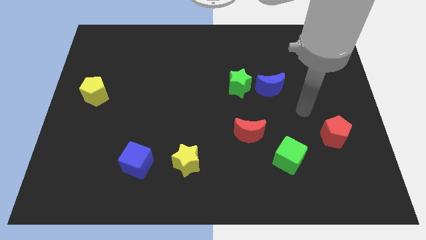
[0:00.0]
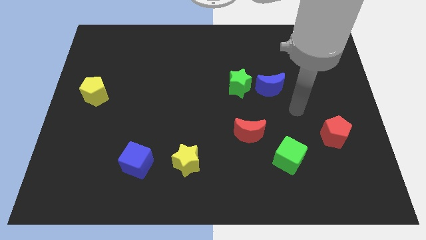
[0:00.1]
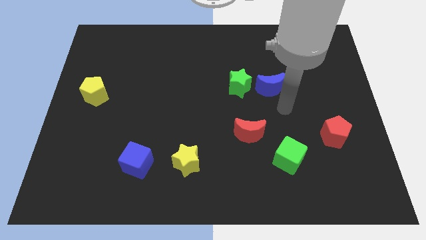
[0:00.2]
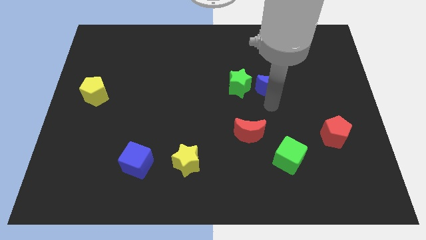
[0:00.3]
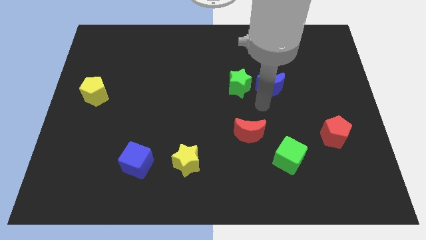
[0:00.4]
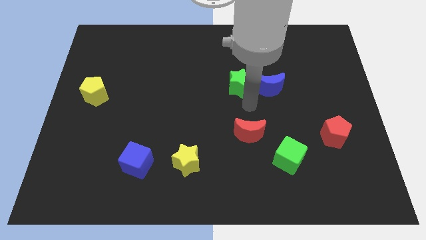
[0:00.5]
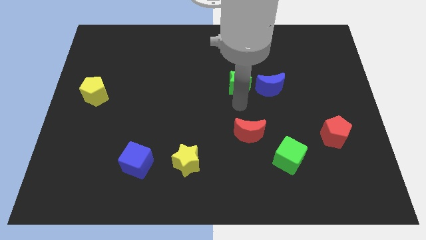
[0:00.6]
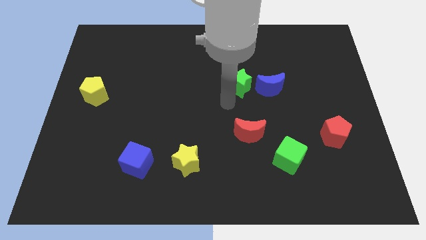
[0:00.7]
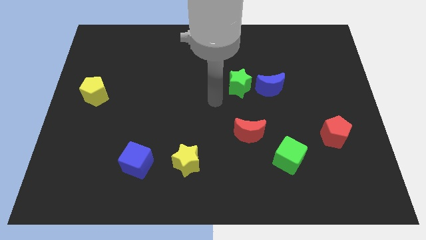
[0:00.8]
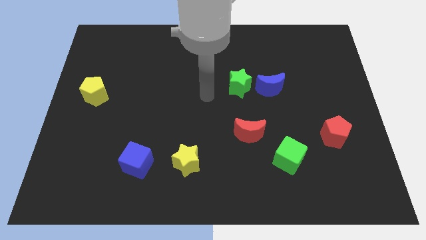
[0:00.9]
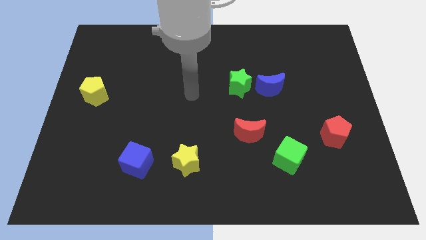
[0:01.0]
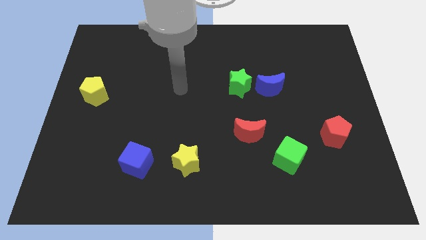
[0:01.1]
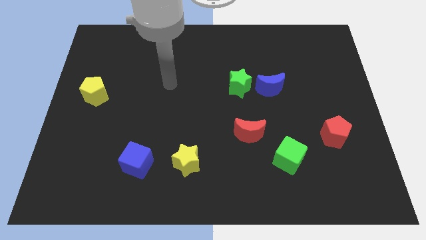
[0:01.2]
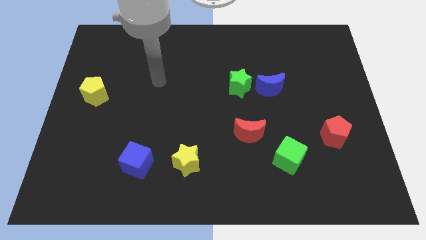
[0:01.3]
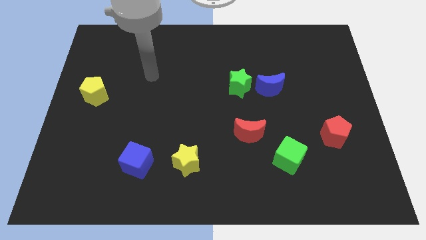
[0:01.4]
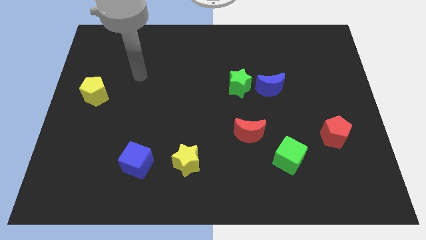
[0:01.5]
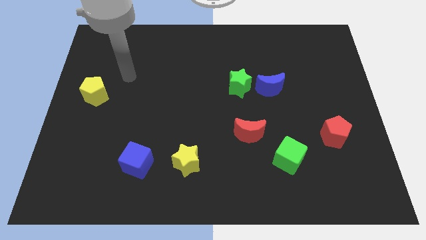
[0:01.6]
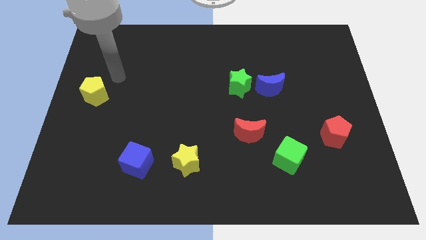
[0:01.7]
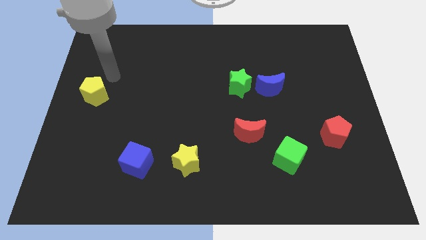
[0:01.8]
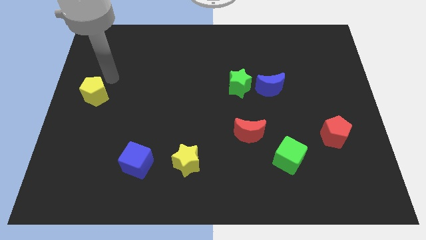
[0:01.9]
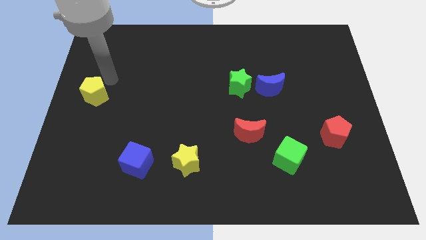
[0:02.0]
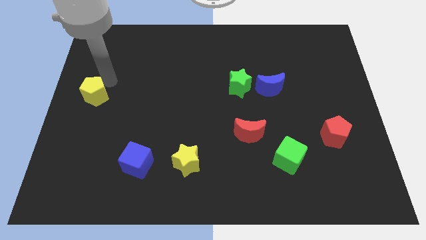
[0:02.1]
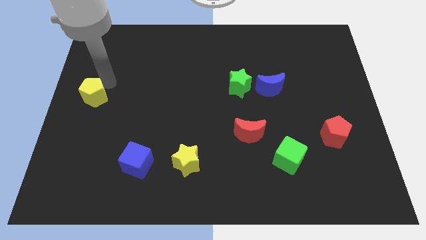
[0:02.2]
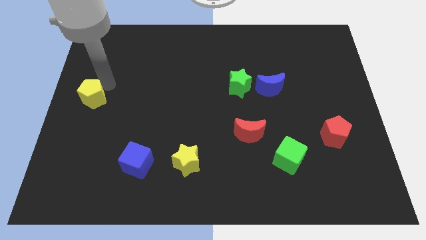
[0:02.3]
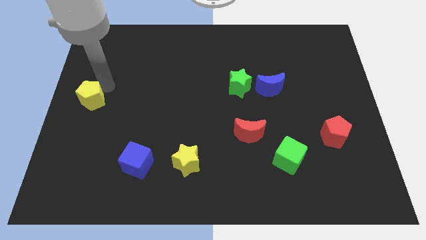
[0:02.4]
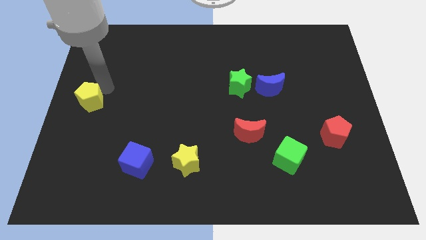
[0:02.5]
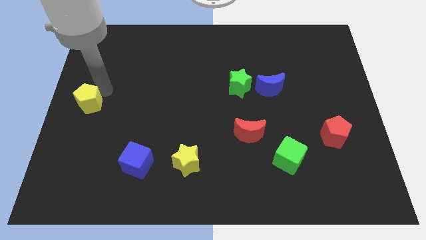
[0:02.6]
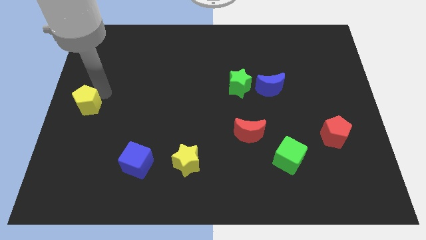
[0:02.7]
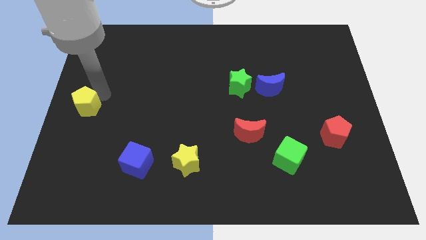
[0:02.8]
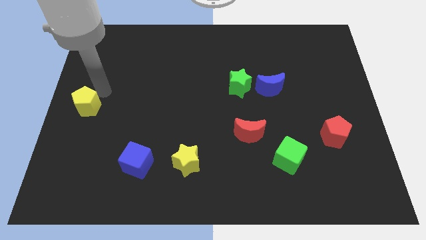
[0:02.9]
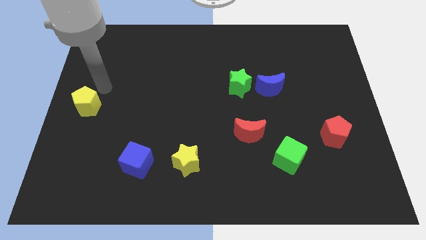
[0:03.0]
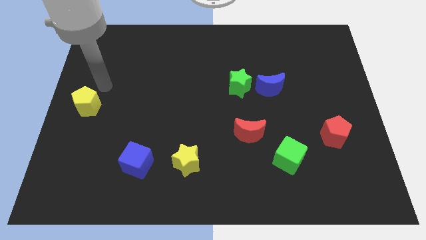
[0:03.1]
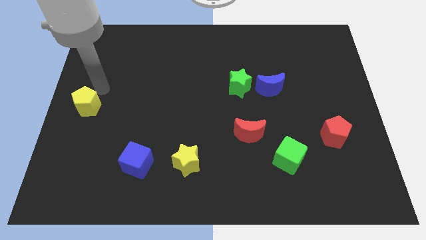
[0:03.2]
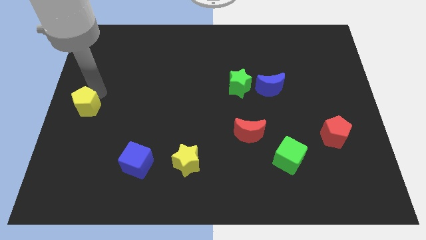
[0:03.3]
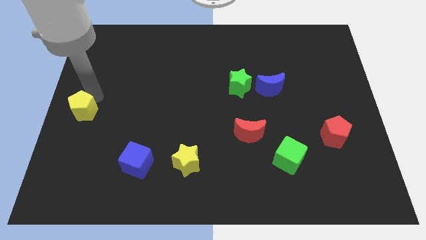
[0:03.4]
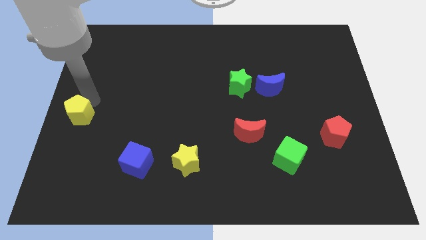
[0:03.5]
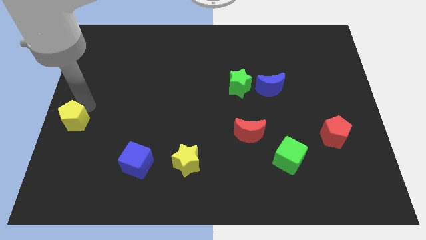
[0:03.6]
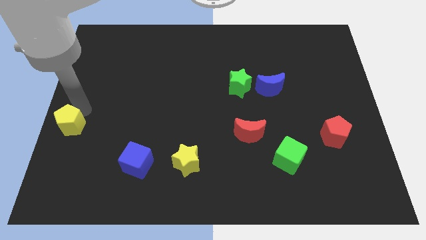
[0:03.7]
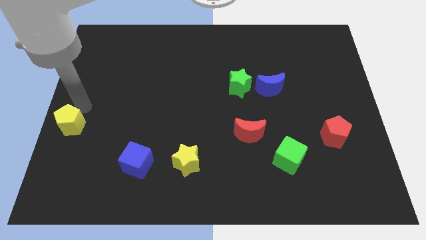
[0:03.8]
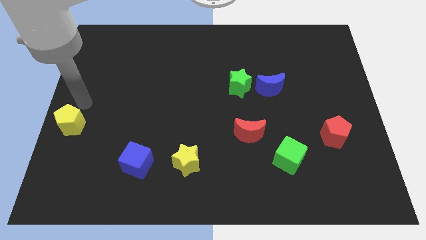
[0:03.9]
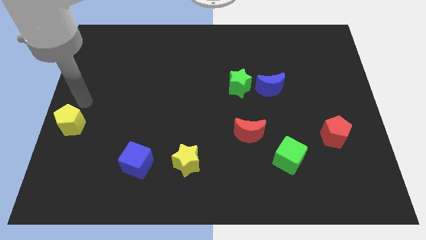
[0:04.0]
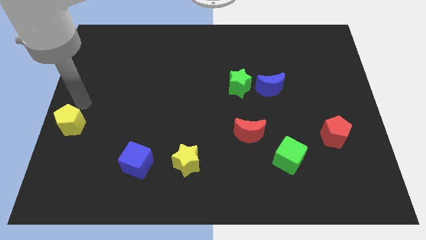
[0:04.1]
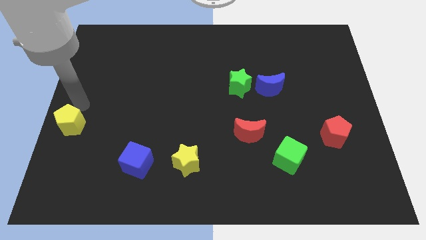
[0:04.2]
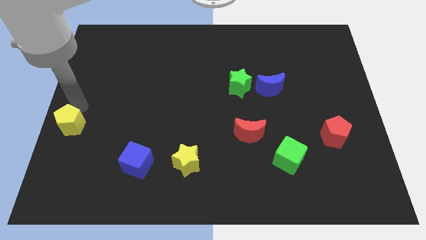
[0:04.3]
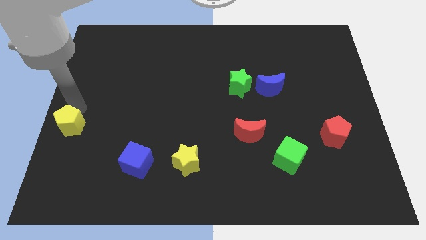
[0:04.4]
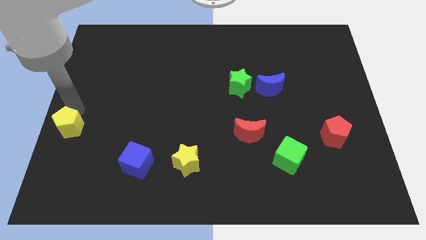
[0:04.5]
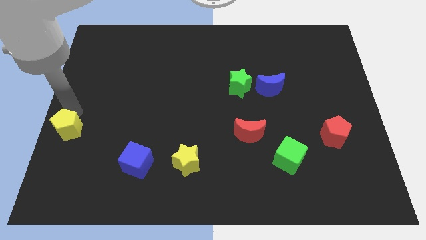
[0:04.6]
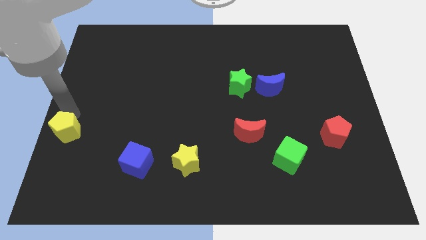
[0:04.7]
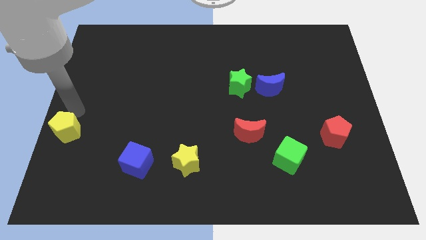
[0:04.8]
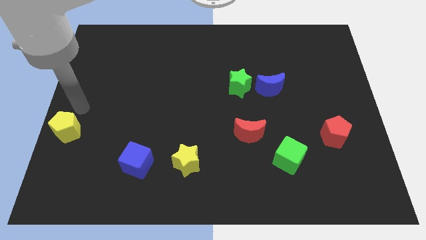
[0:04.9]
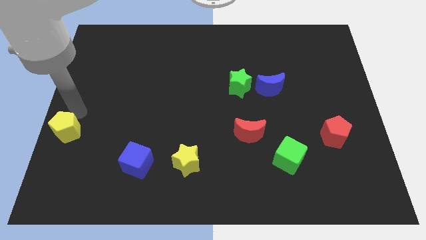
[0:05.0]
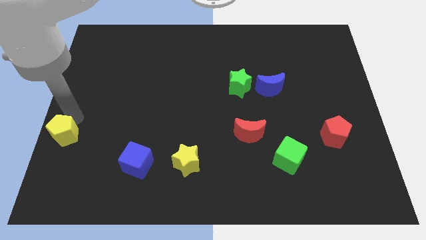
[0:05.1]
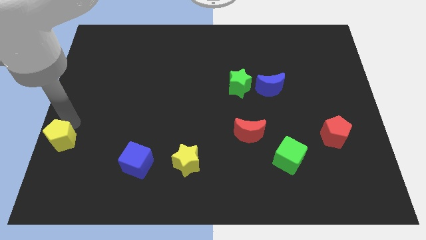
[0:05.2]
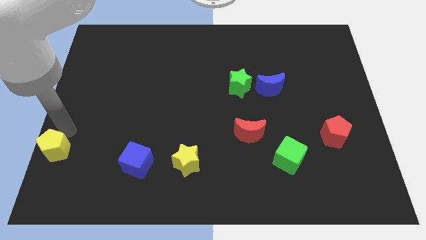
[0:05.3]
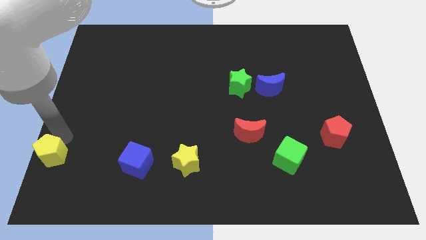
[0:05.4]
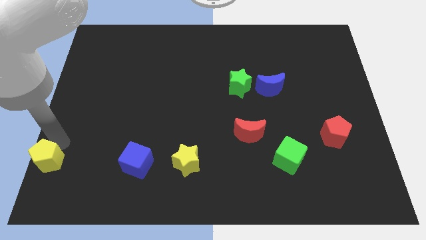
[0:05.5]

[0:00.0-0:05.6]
put the yellow pentagon to the bottom left

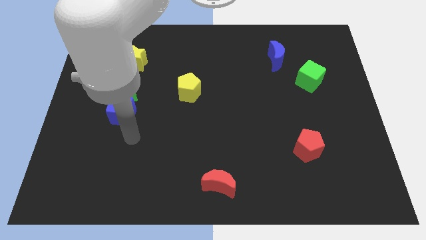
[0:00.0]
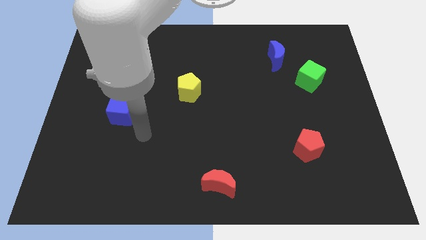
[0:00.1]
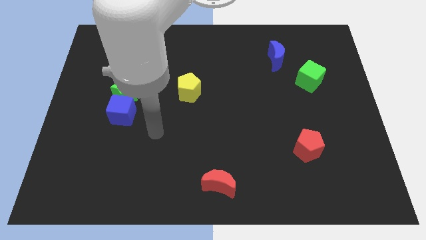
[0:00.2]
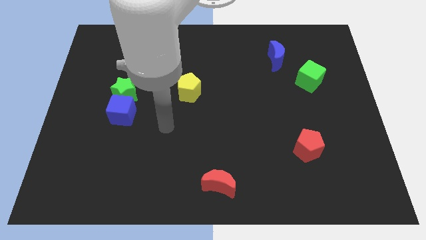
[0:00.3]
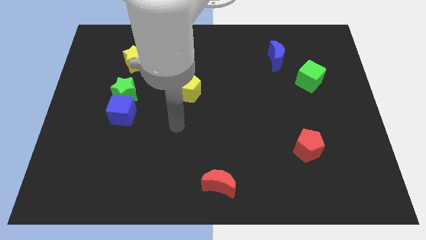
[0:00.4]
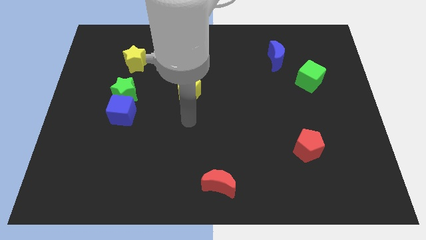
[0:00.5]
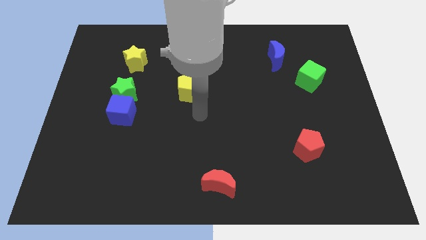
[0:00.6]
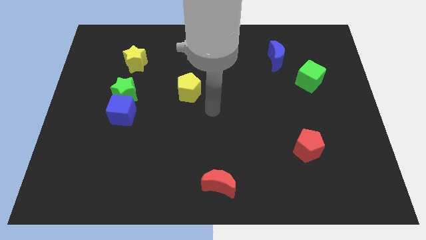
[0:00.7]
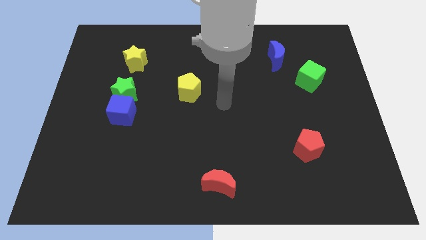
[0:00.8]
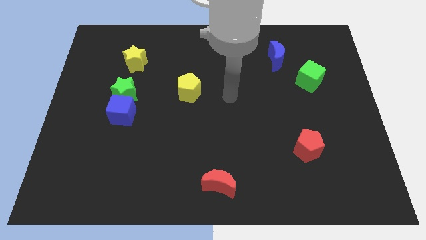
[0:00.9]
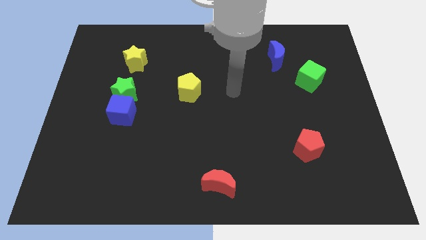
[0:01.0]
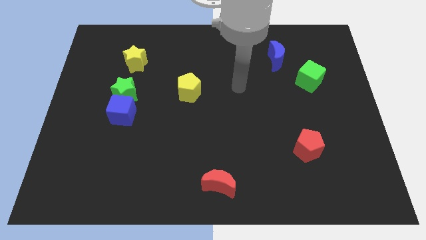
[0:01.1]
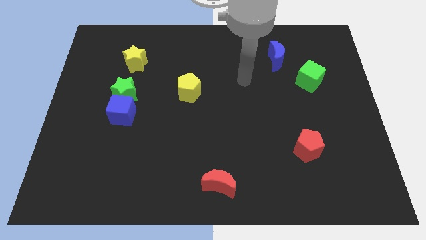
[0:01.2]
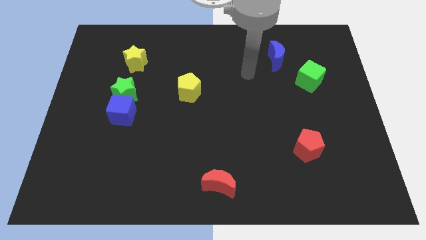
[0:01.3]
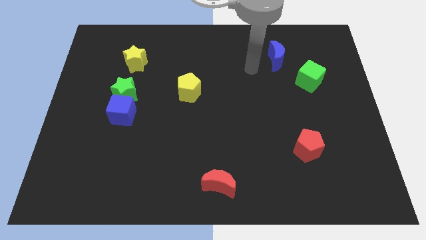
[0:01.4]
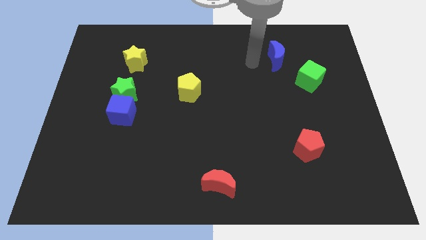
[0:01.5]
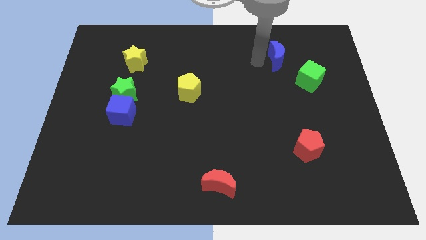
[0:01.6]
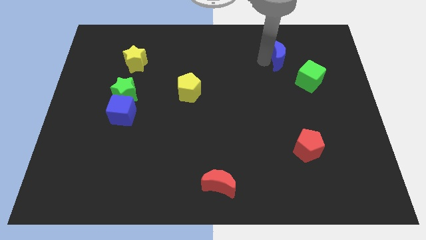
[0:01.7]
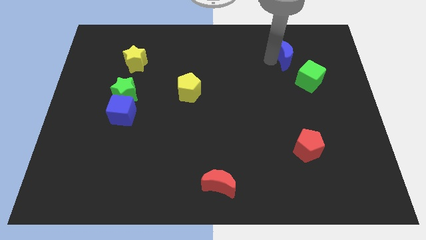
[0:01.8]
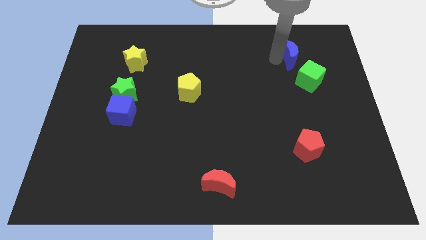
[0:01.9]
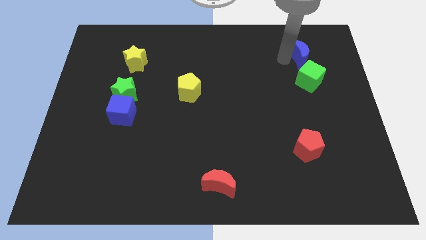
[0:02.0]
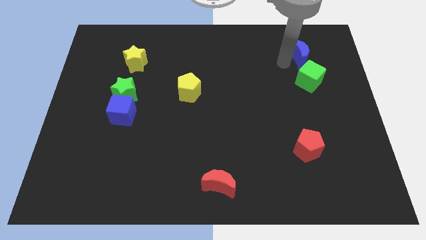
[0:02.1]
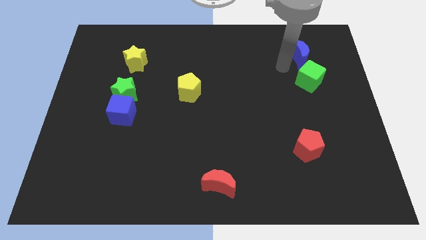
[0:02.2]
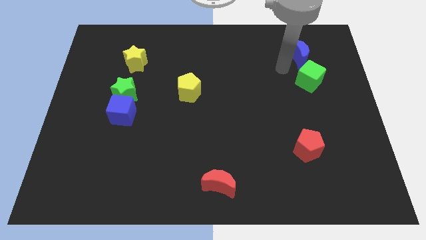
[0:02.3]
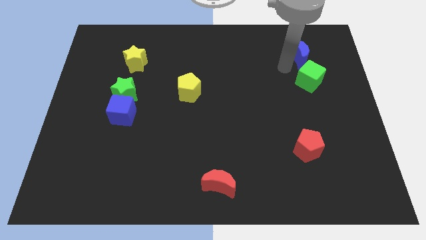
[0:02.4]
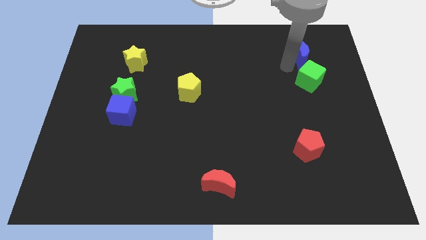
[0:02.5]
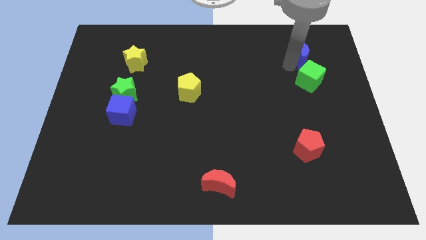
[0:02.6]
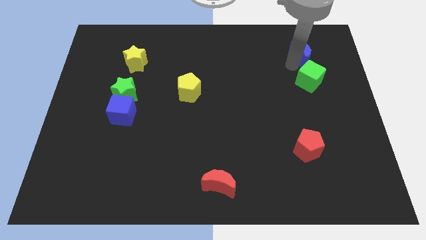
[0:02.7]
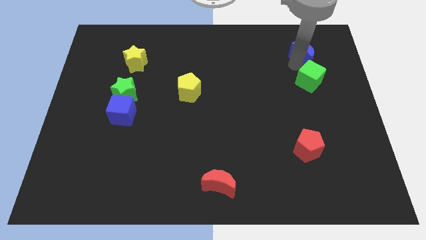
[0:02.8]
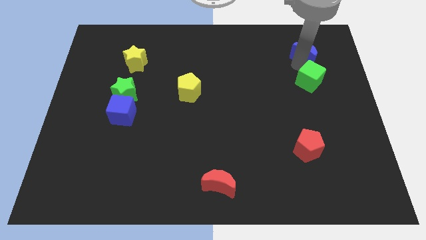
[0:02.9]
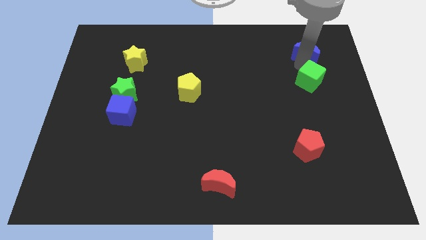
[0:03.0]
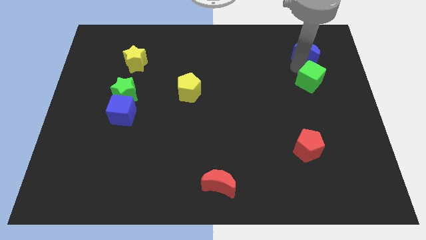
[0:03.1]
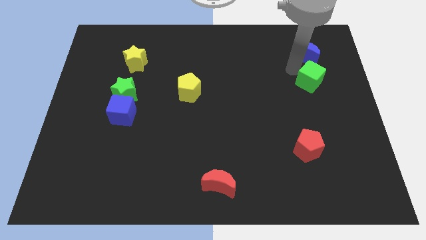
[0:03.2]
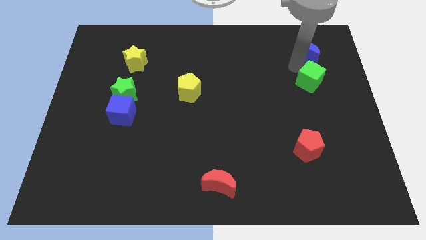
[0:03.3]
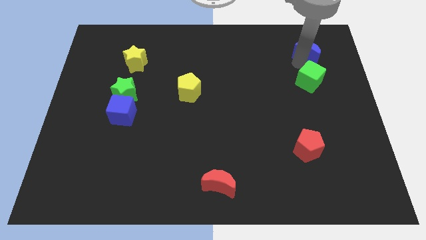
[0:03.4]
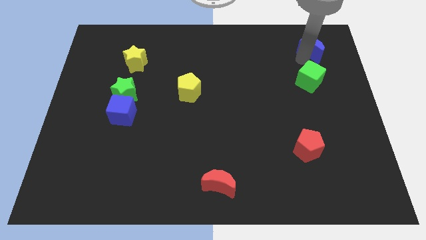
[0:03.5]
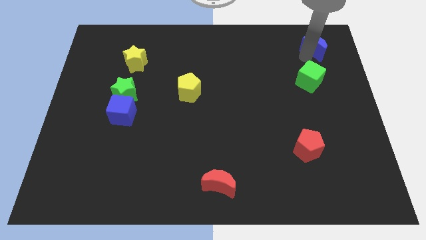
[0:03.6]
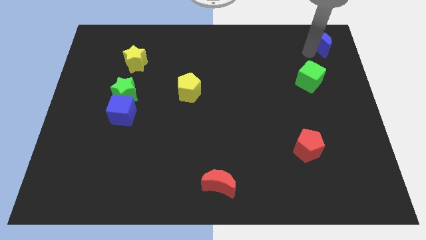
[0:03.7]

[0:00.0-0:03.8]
push the blue moon to the upper right corner
